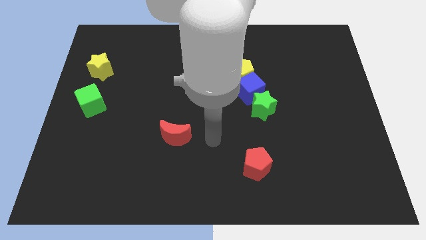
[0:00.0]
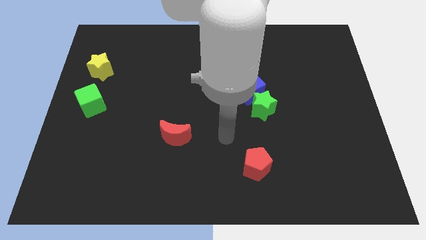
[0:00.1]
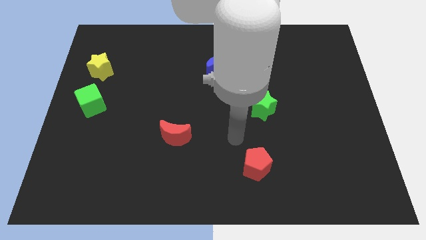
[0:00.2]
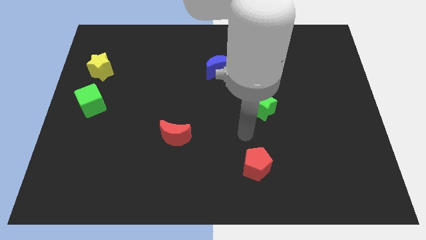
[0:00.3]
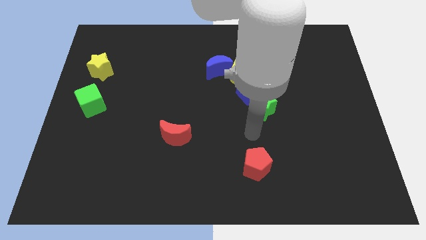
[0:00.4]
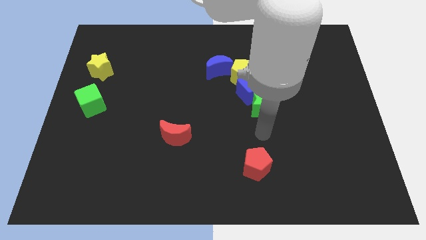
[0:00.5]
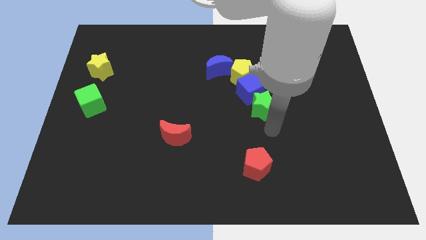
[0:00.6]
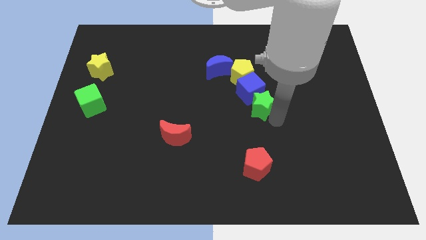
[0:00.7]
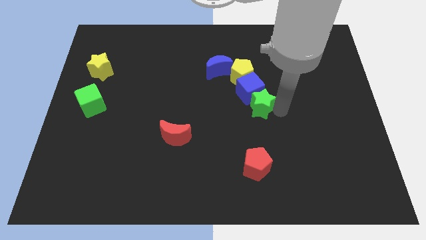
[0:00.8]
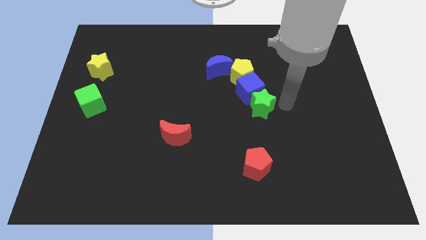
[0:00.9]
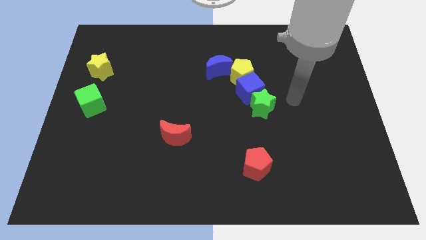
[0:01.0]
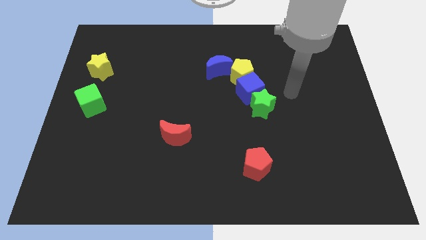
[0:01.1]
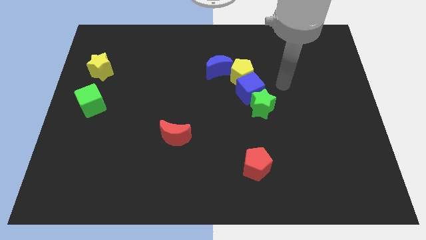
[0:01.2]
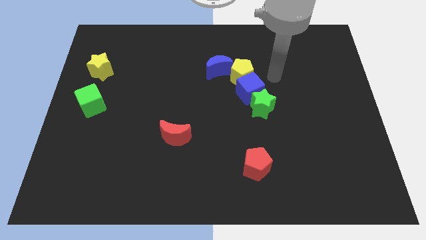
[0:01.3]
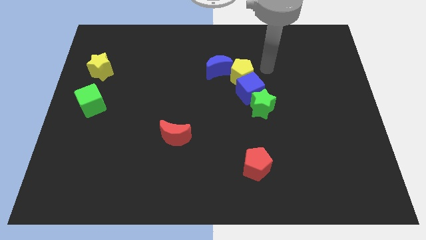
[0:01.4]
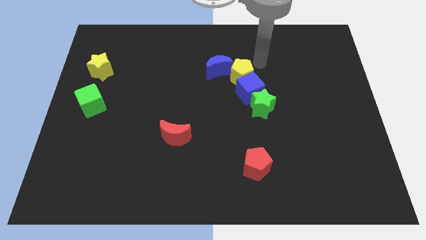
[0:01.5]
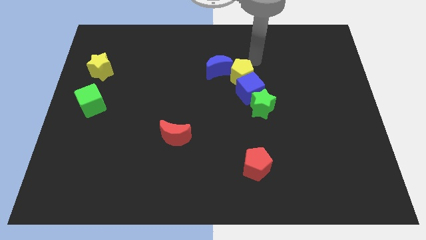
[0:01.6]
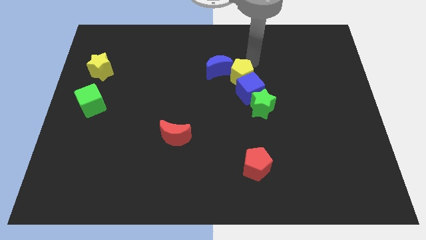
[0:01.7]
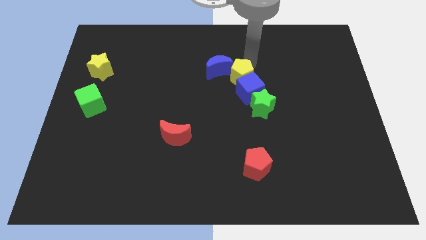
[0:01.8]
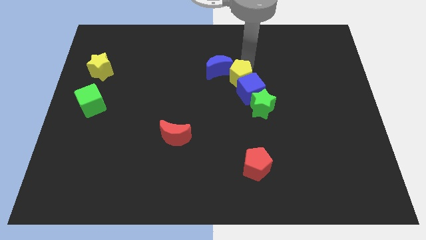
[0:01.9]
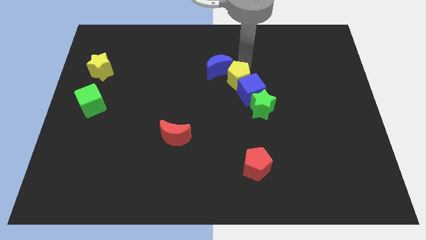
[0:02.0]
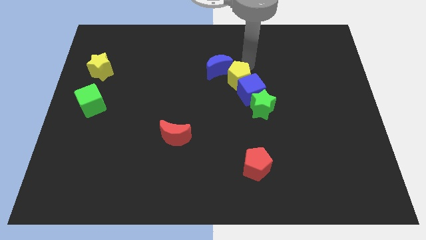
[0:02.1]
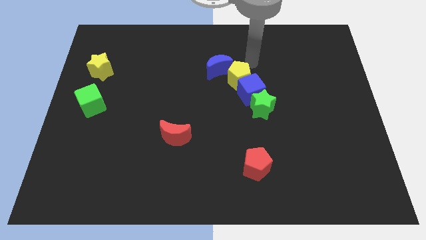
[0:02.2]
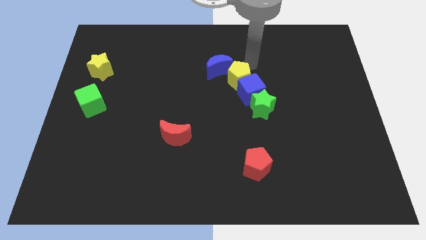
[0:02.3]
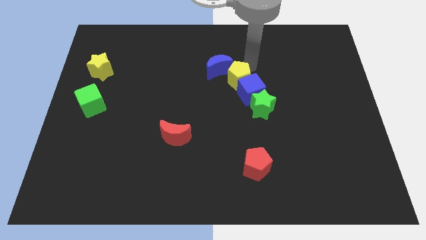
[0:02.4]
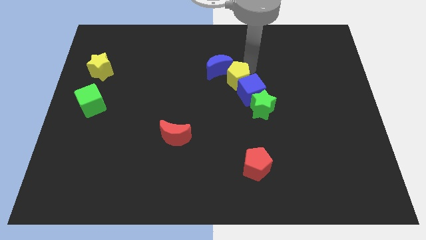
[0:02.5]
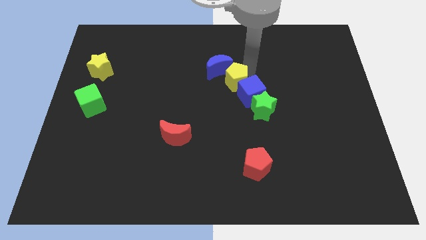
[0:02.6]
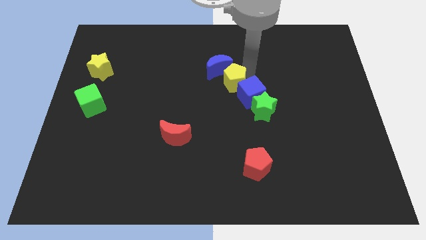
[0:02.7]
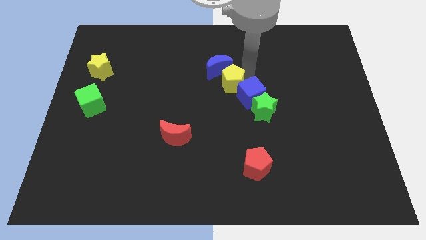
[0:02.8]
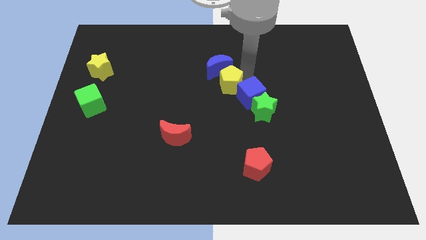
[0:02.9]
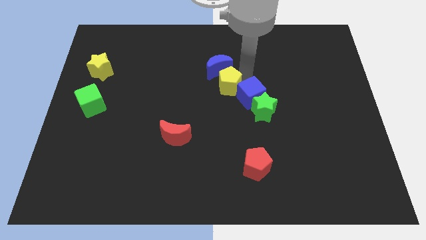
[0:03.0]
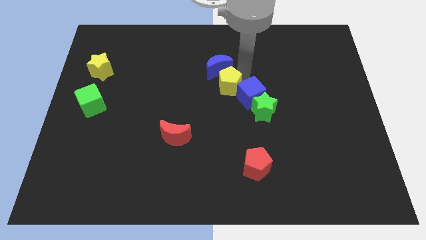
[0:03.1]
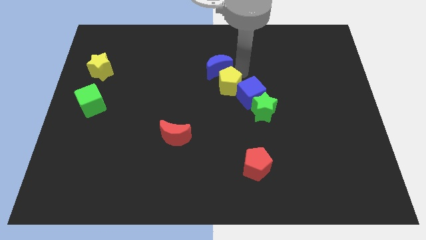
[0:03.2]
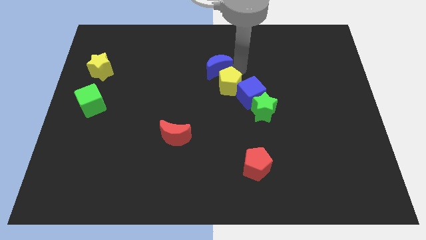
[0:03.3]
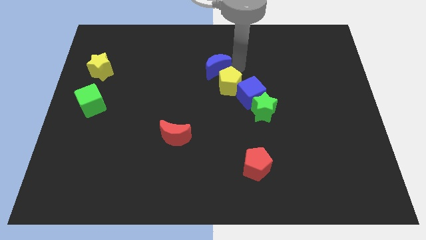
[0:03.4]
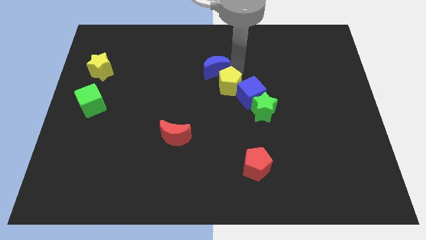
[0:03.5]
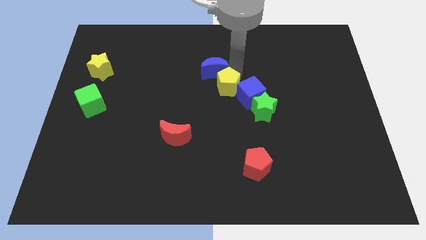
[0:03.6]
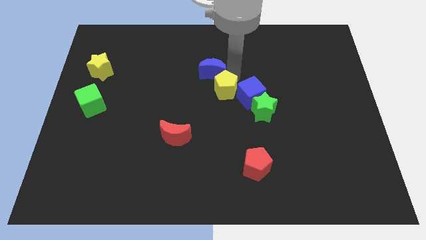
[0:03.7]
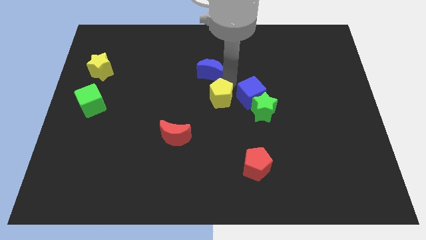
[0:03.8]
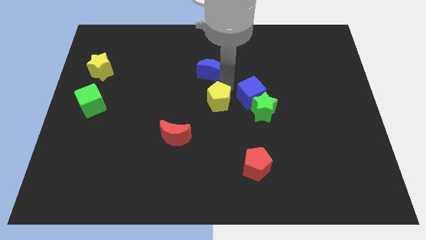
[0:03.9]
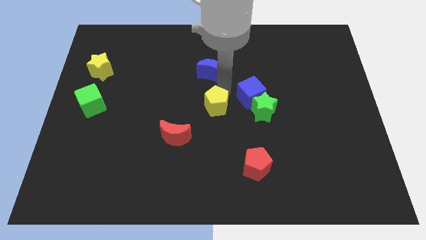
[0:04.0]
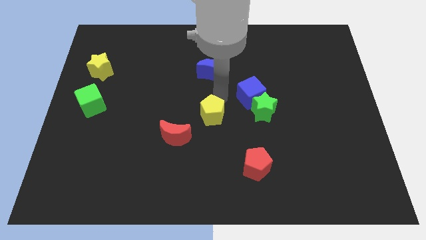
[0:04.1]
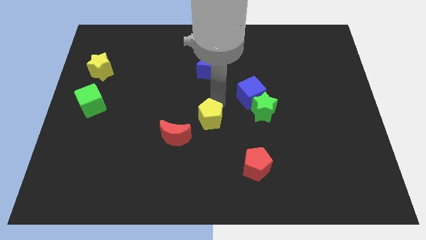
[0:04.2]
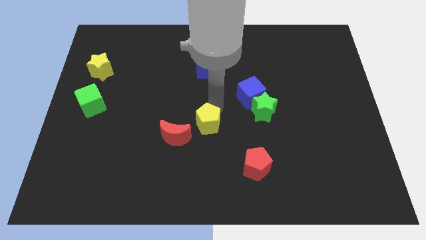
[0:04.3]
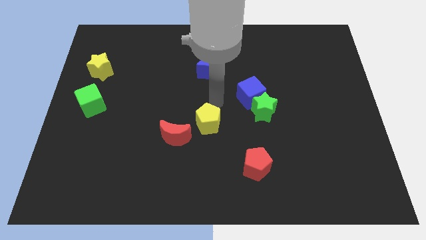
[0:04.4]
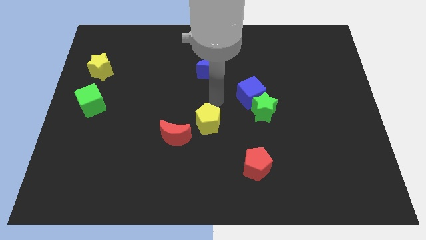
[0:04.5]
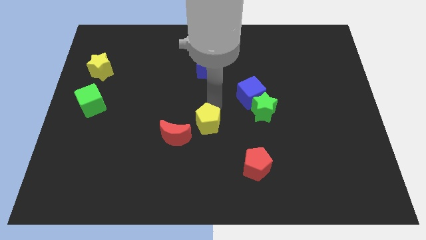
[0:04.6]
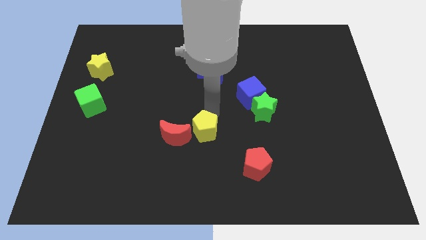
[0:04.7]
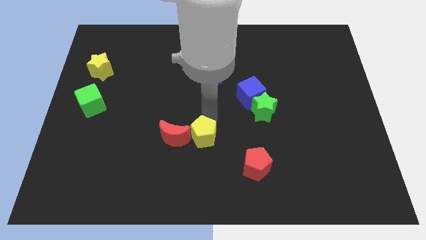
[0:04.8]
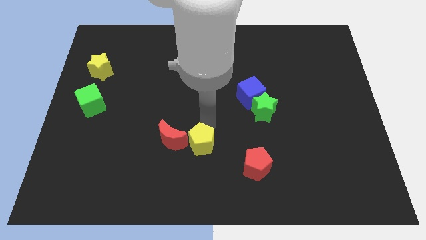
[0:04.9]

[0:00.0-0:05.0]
move the yellow pentagon to the bottom right of the red moon

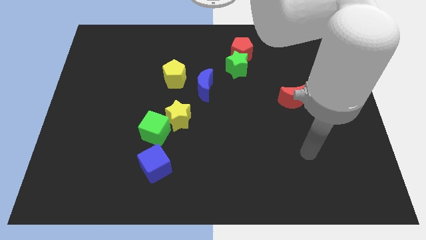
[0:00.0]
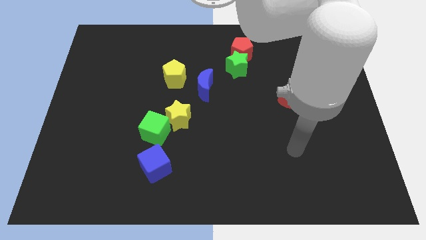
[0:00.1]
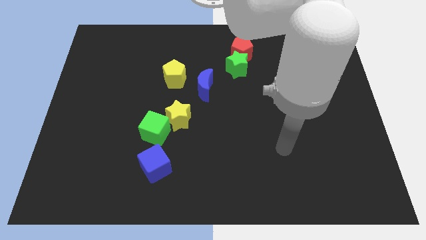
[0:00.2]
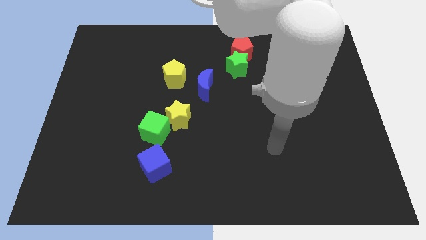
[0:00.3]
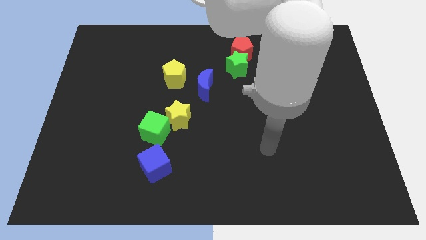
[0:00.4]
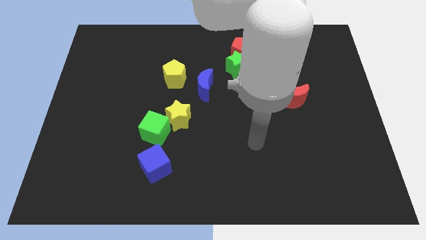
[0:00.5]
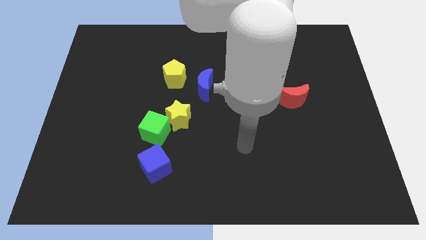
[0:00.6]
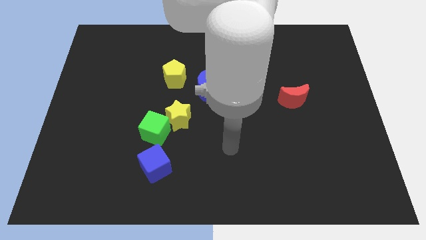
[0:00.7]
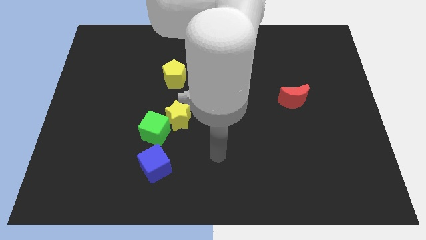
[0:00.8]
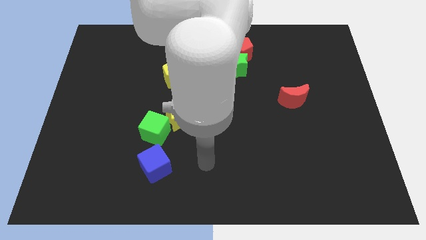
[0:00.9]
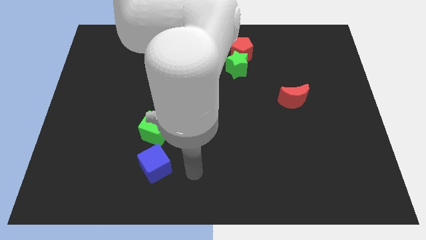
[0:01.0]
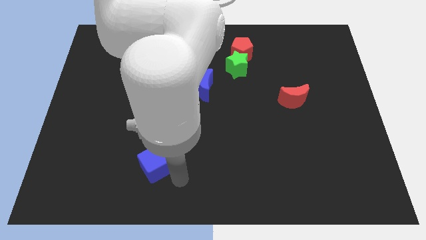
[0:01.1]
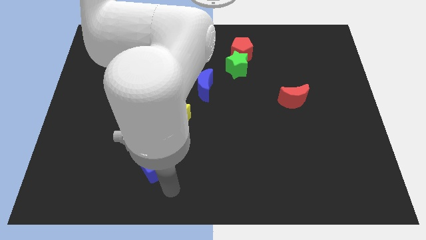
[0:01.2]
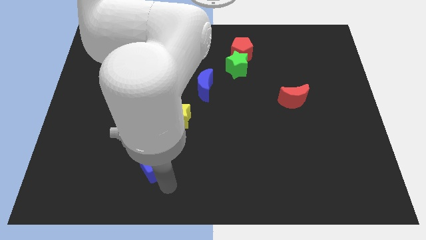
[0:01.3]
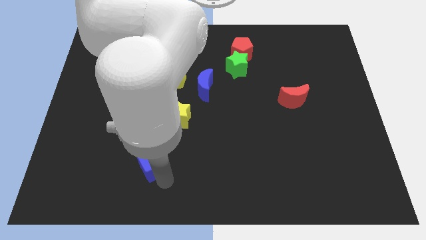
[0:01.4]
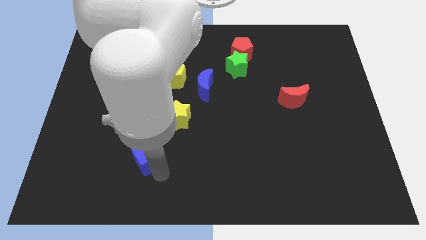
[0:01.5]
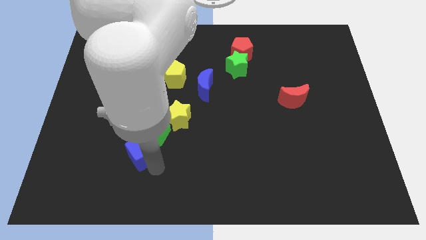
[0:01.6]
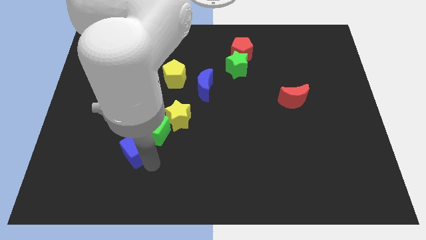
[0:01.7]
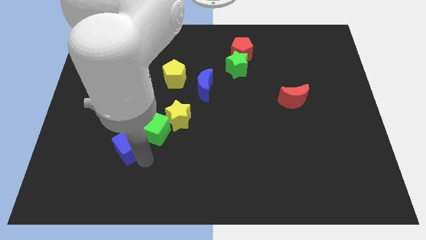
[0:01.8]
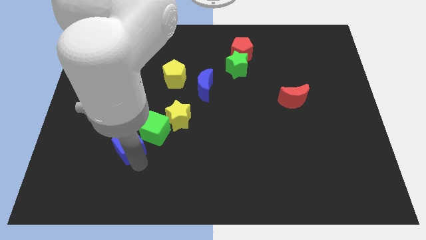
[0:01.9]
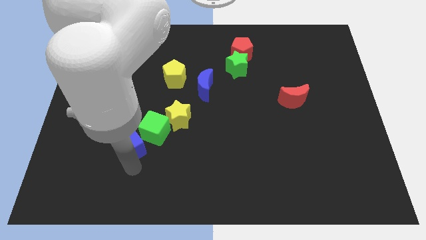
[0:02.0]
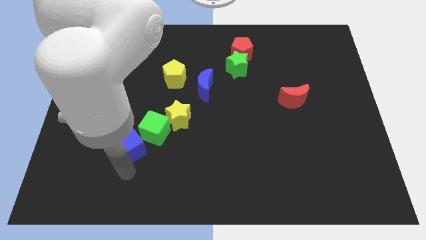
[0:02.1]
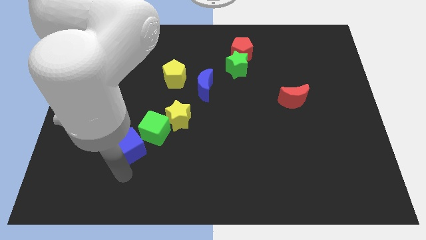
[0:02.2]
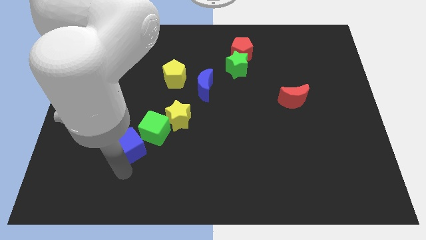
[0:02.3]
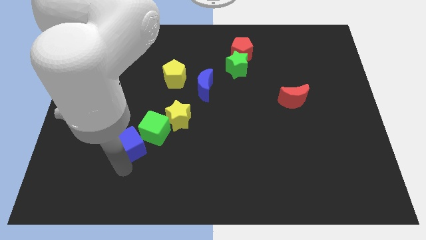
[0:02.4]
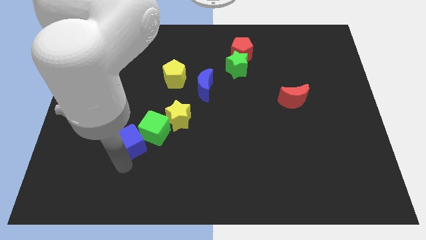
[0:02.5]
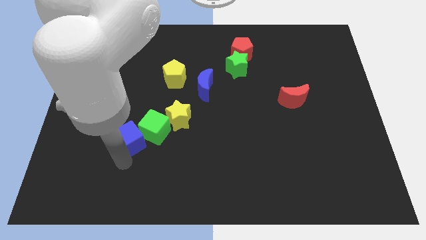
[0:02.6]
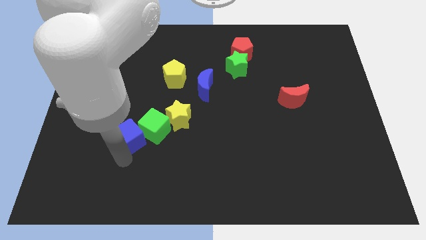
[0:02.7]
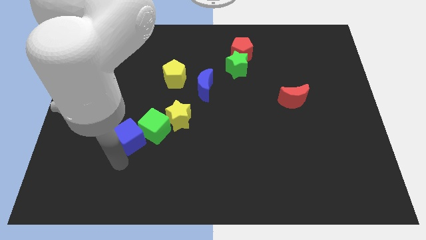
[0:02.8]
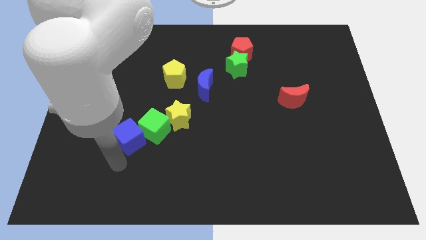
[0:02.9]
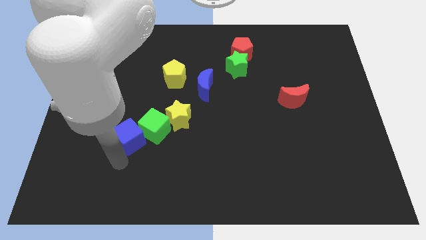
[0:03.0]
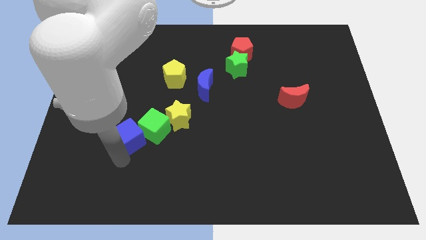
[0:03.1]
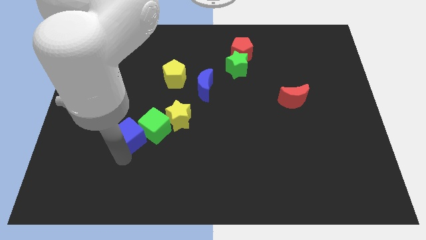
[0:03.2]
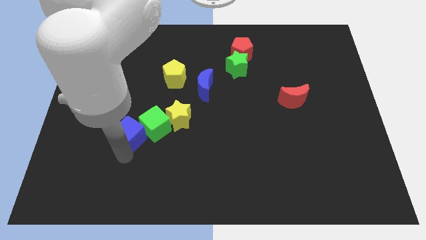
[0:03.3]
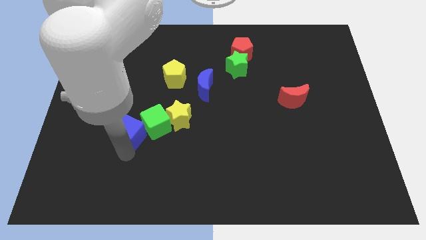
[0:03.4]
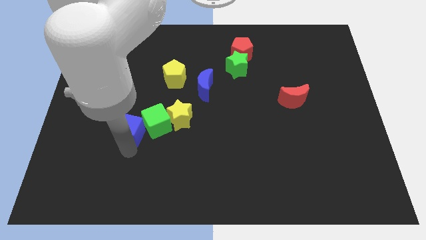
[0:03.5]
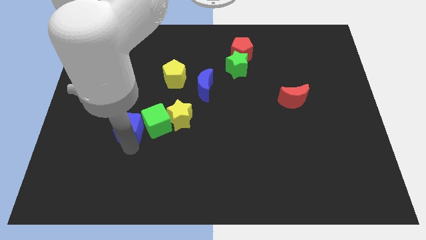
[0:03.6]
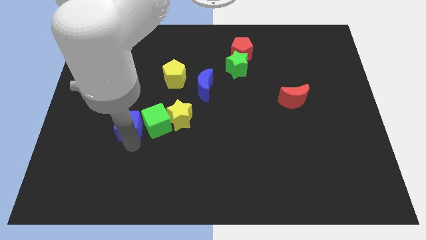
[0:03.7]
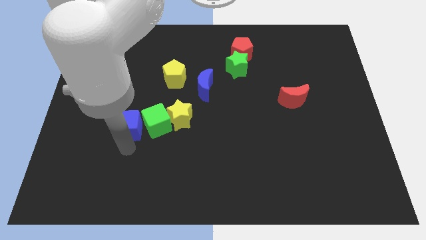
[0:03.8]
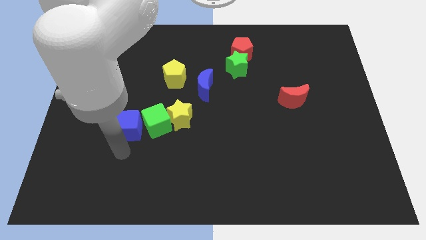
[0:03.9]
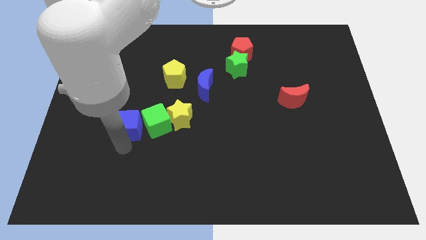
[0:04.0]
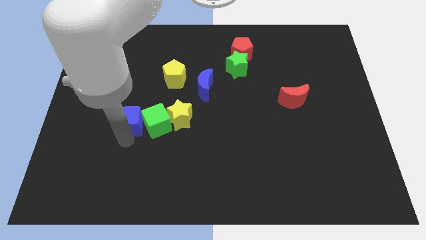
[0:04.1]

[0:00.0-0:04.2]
move the blue cube diagonally up and to the left of the green cube
